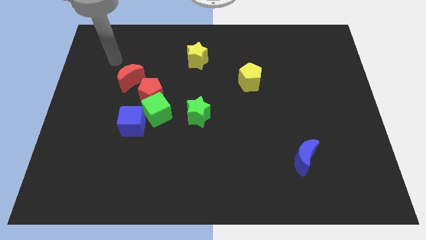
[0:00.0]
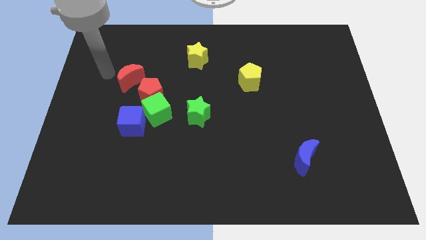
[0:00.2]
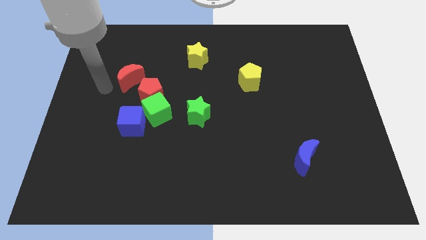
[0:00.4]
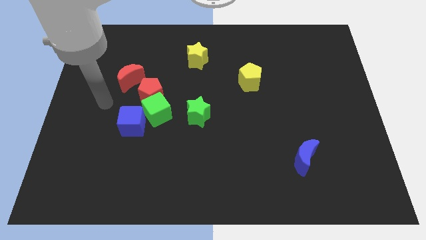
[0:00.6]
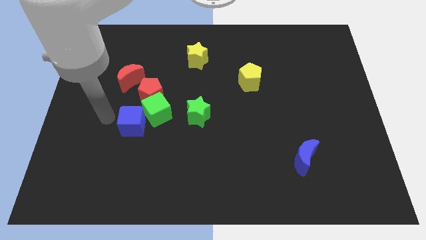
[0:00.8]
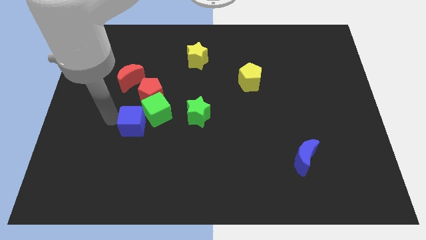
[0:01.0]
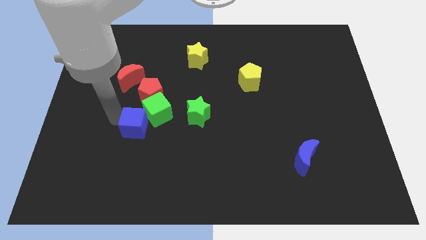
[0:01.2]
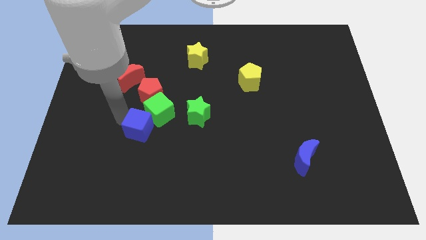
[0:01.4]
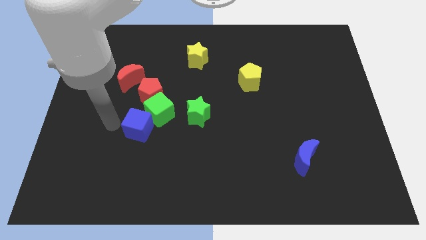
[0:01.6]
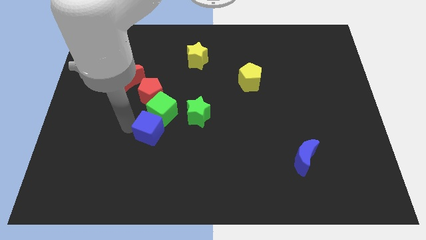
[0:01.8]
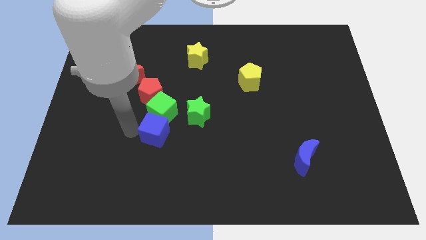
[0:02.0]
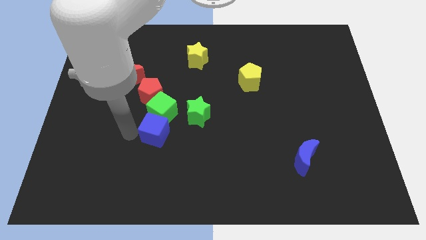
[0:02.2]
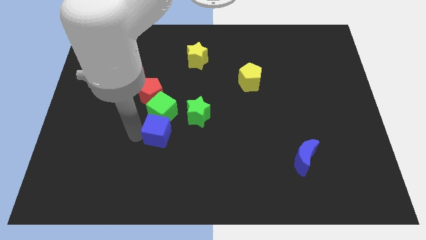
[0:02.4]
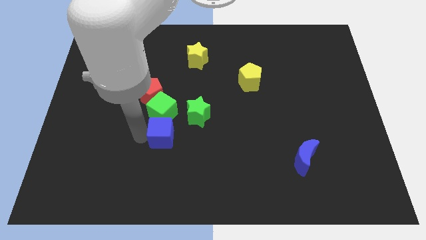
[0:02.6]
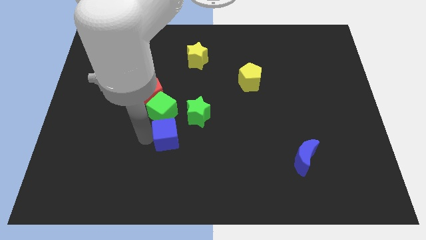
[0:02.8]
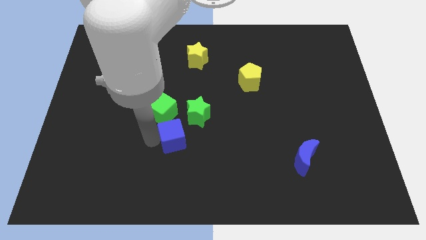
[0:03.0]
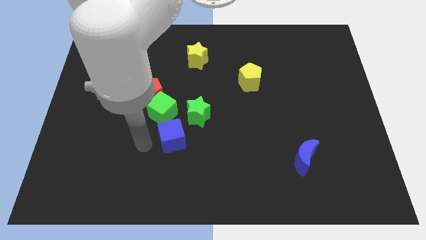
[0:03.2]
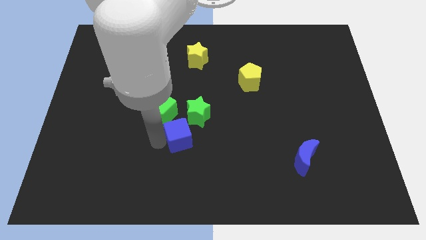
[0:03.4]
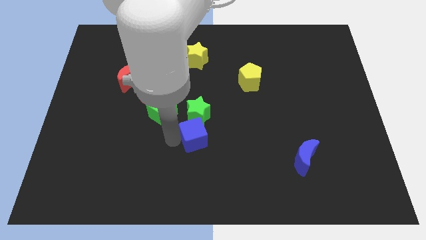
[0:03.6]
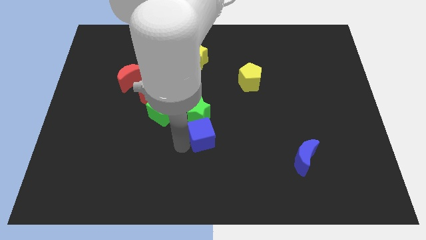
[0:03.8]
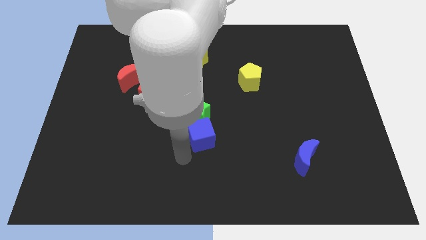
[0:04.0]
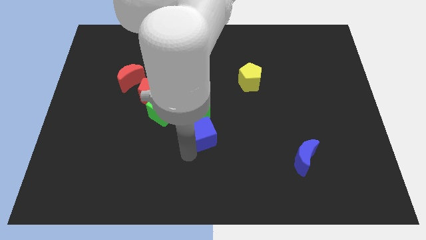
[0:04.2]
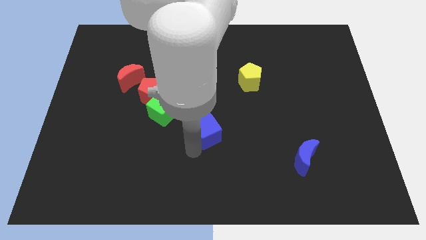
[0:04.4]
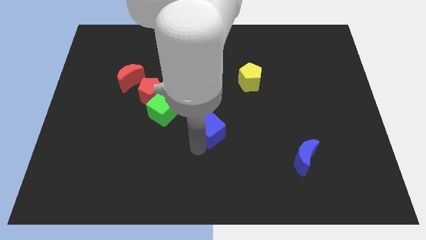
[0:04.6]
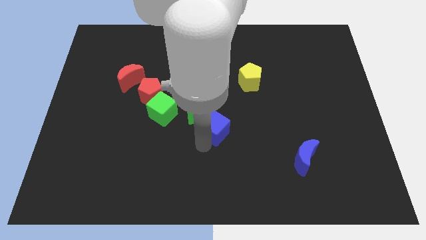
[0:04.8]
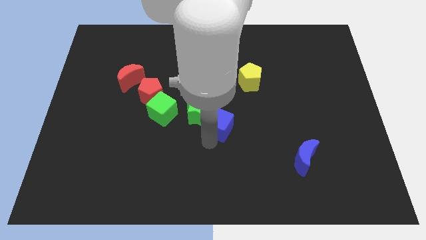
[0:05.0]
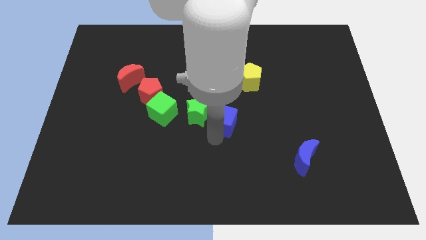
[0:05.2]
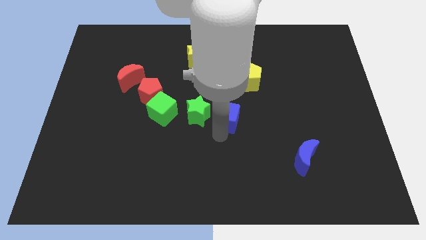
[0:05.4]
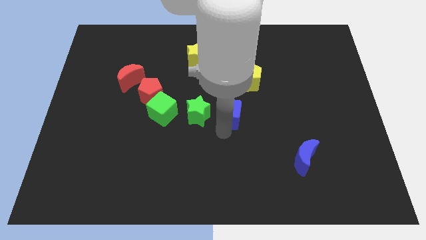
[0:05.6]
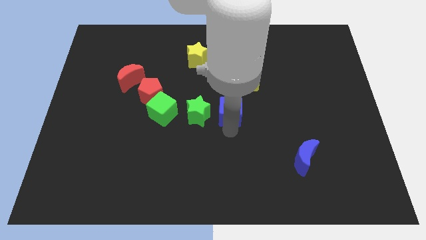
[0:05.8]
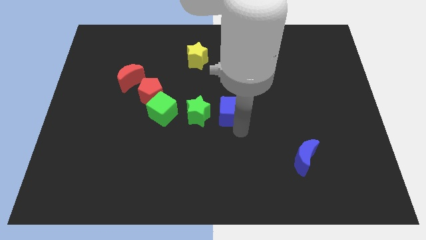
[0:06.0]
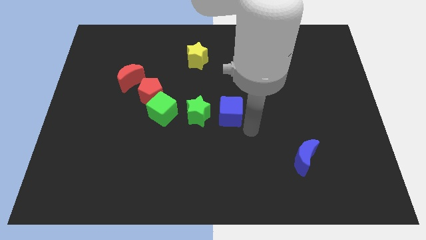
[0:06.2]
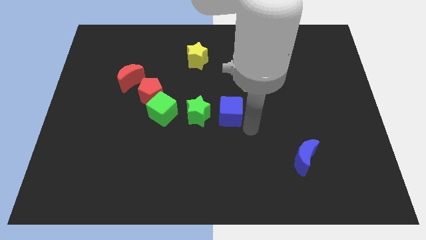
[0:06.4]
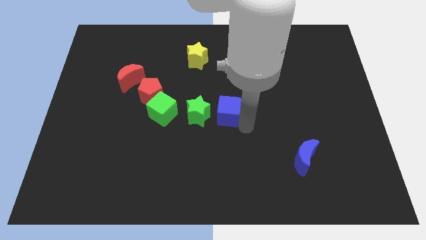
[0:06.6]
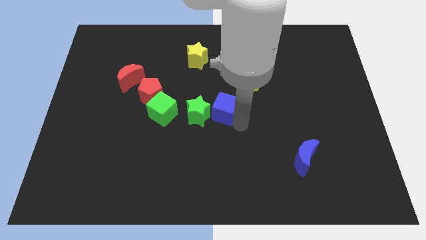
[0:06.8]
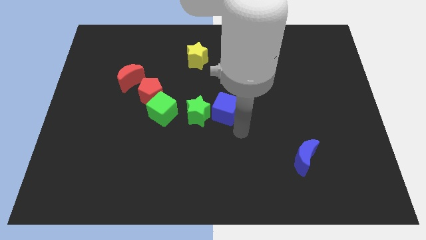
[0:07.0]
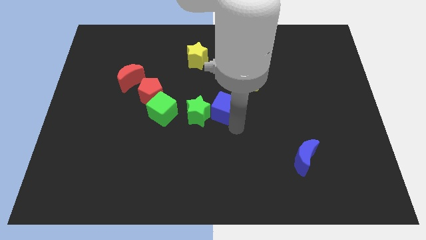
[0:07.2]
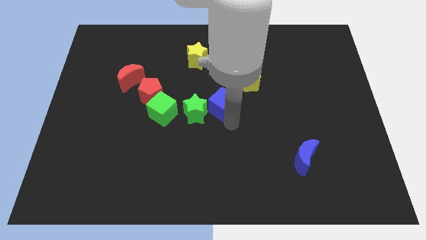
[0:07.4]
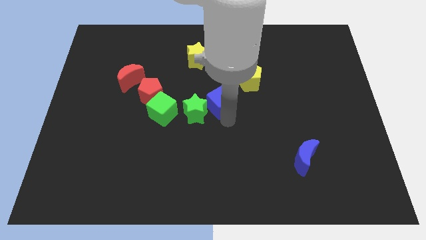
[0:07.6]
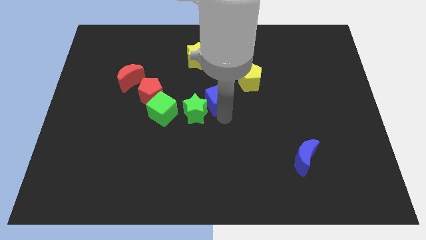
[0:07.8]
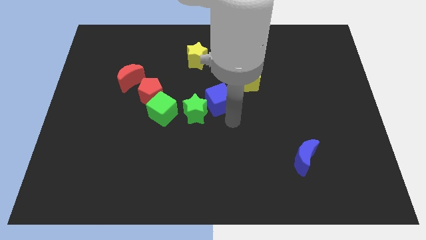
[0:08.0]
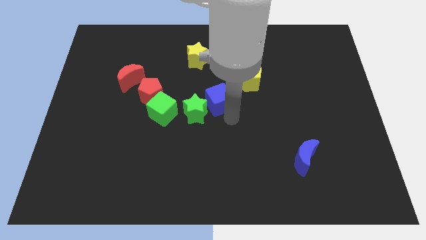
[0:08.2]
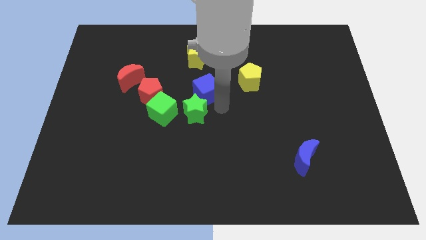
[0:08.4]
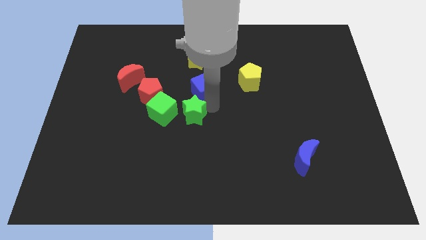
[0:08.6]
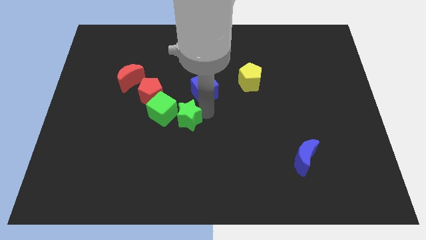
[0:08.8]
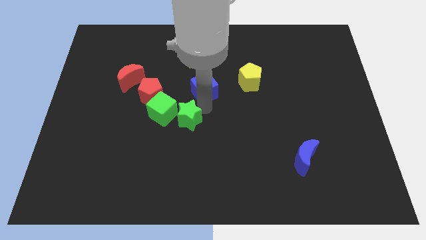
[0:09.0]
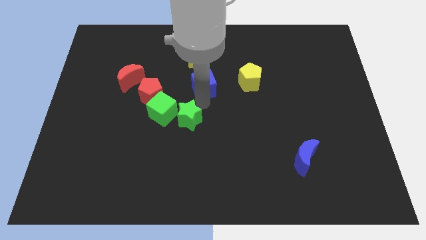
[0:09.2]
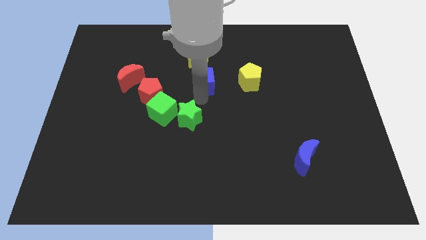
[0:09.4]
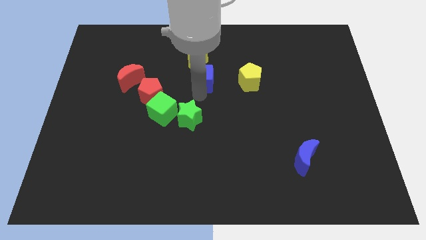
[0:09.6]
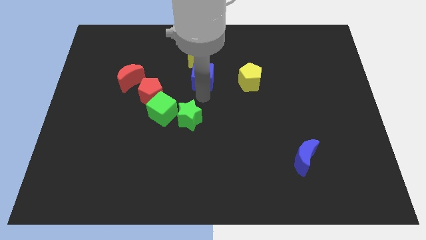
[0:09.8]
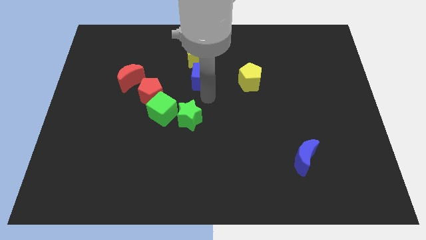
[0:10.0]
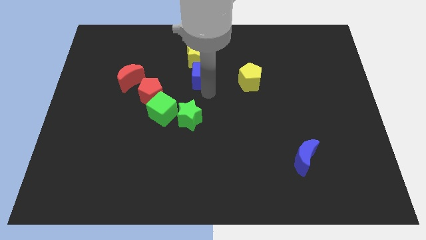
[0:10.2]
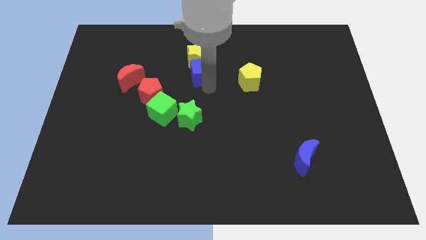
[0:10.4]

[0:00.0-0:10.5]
push the blue cube towards the yellow star

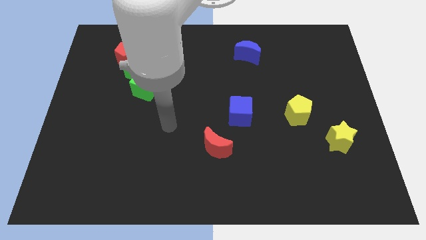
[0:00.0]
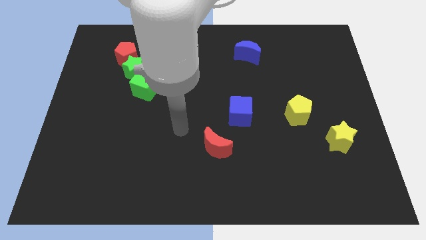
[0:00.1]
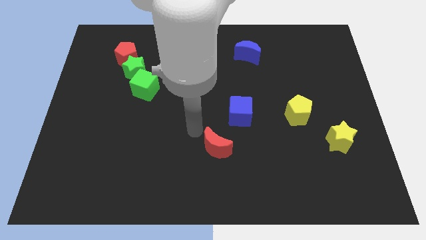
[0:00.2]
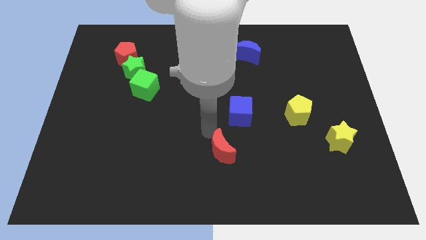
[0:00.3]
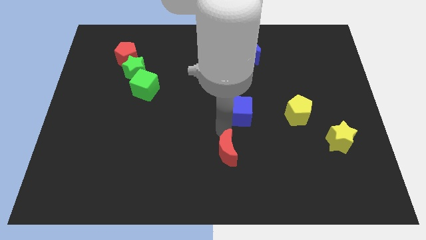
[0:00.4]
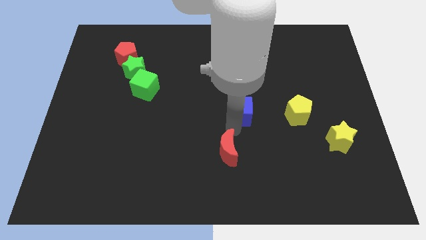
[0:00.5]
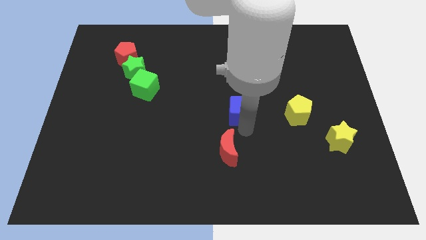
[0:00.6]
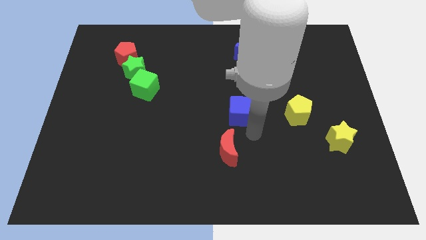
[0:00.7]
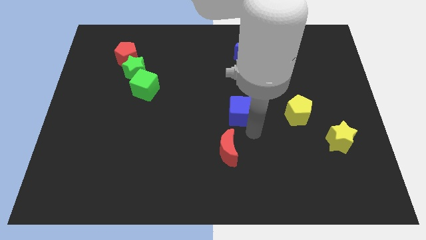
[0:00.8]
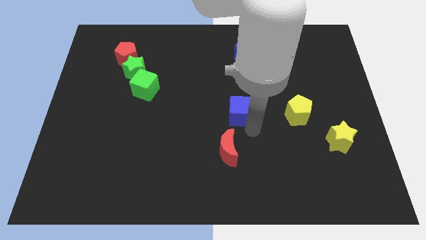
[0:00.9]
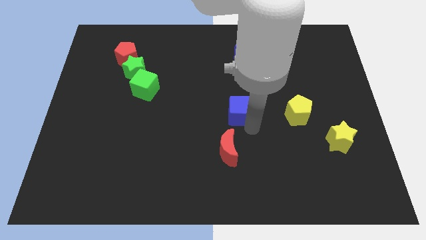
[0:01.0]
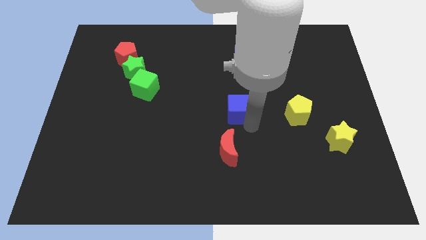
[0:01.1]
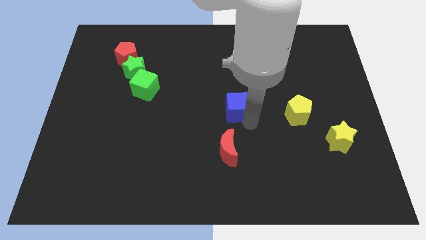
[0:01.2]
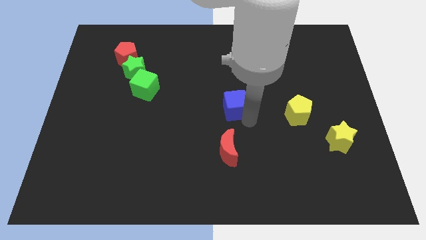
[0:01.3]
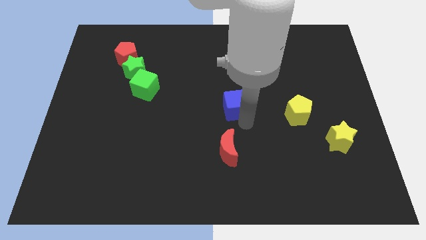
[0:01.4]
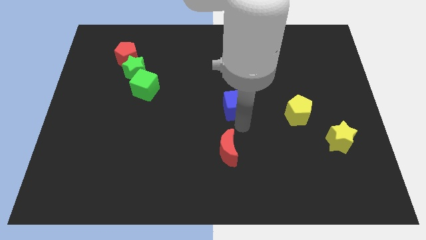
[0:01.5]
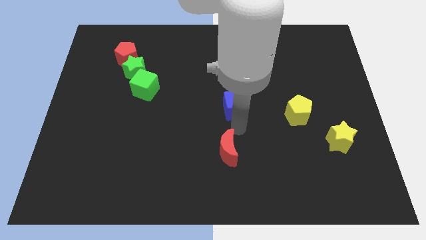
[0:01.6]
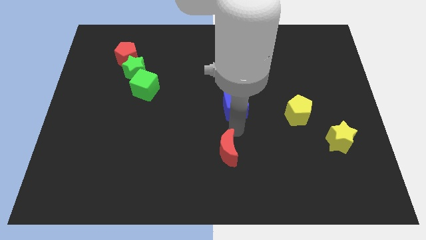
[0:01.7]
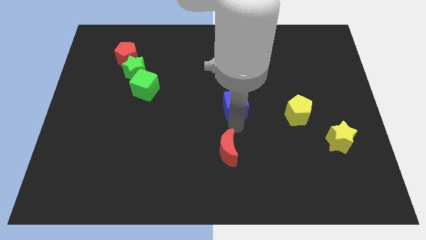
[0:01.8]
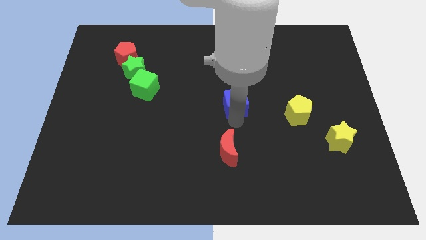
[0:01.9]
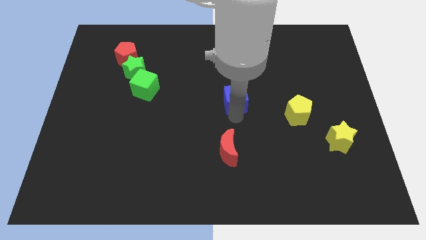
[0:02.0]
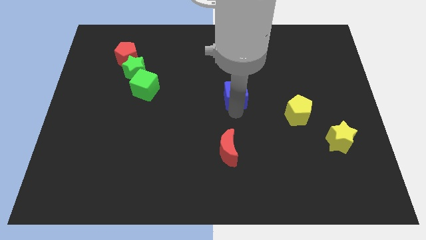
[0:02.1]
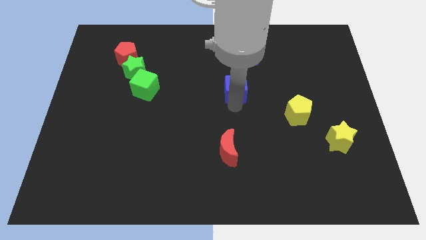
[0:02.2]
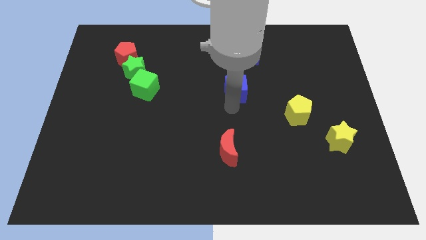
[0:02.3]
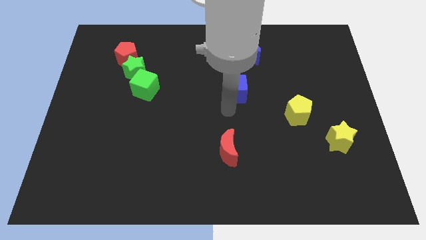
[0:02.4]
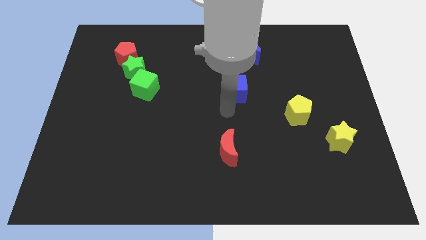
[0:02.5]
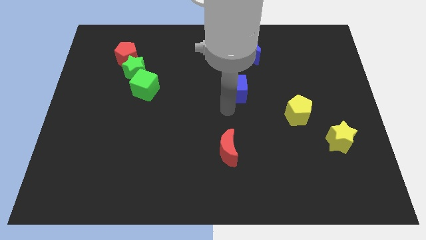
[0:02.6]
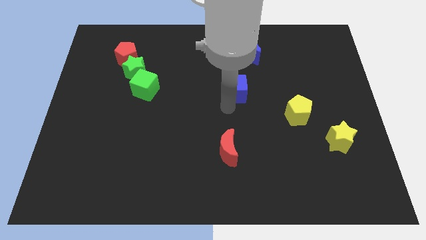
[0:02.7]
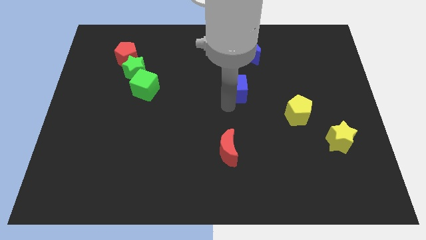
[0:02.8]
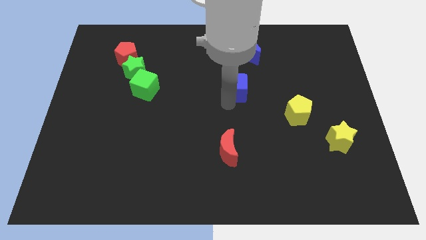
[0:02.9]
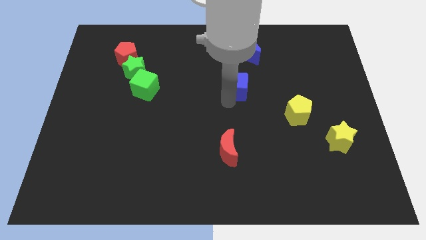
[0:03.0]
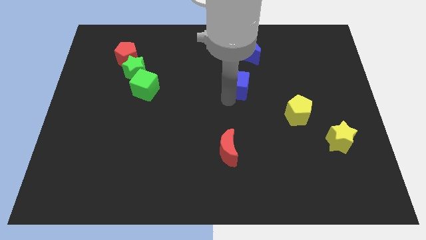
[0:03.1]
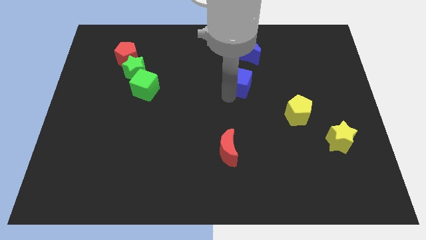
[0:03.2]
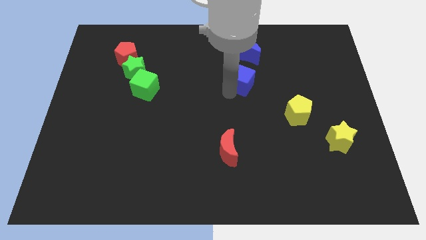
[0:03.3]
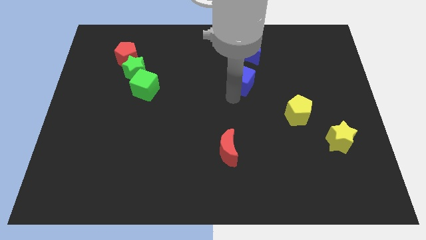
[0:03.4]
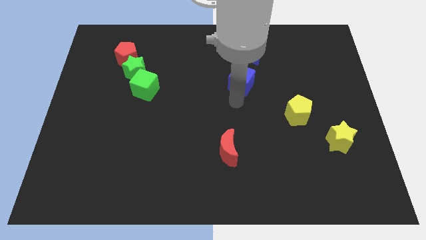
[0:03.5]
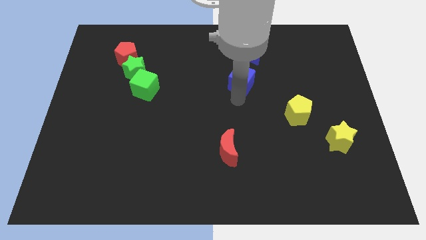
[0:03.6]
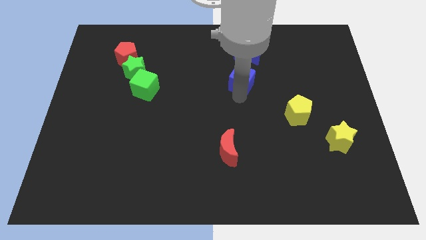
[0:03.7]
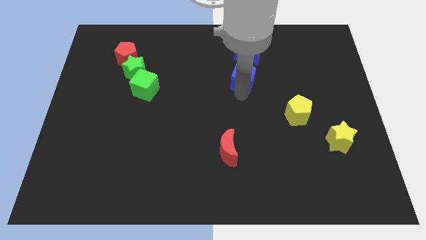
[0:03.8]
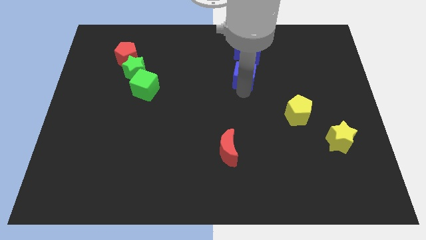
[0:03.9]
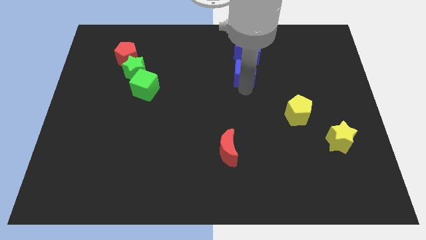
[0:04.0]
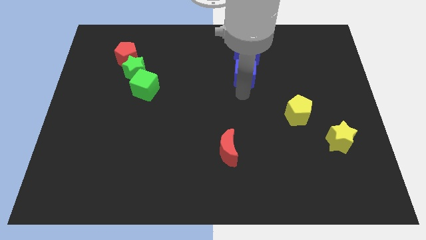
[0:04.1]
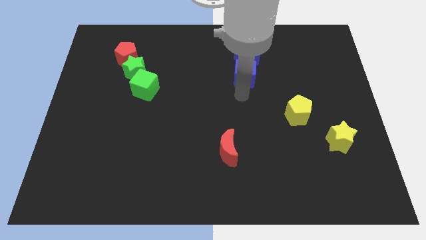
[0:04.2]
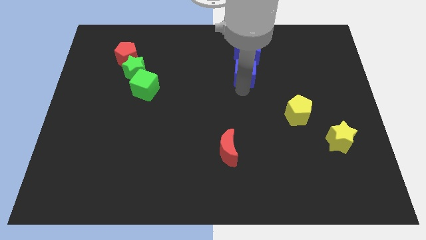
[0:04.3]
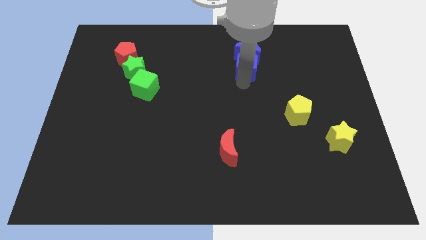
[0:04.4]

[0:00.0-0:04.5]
slide the blue cube close to the blue moon
